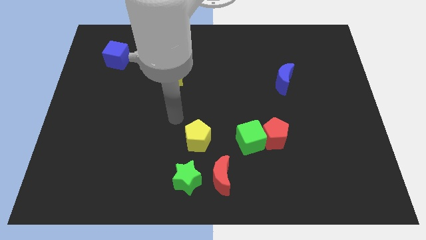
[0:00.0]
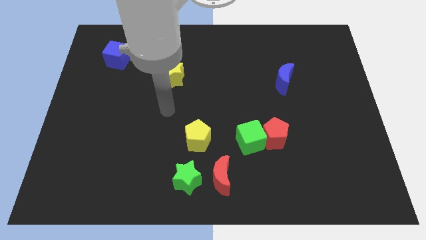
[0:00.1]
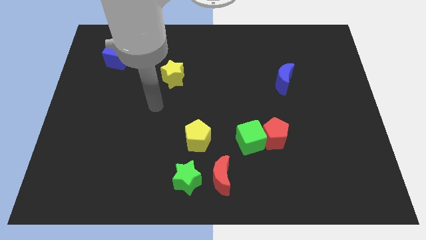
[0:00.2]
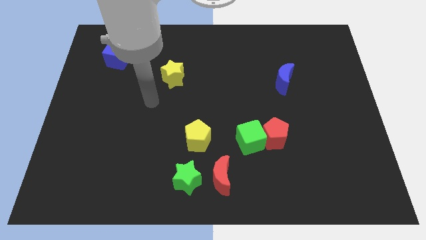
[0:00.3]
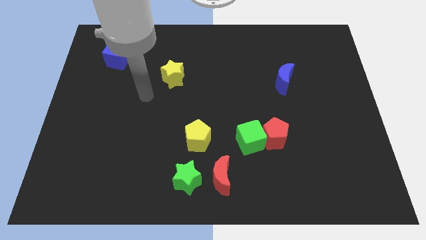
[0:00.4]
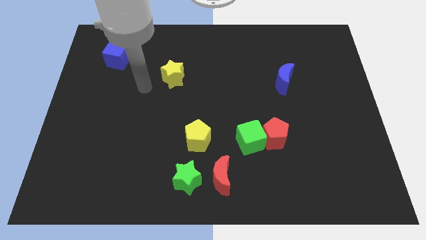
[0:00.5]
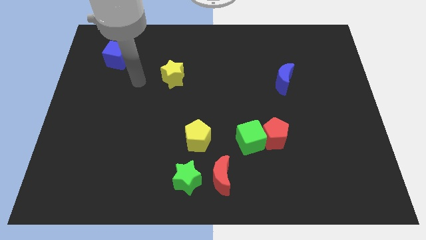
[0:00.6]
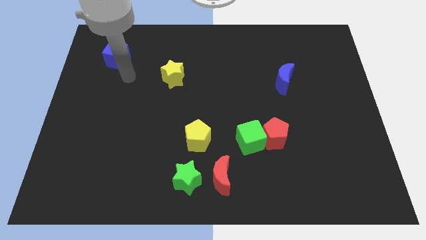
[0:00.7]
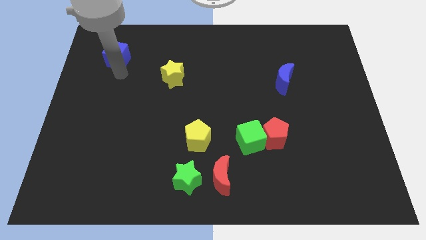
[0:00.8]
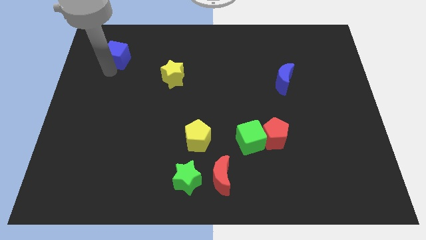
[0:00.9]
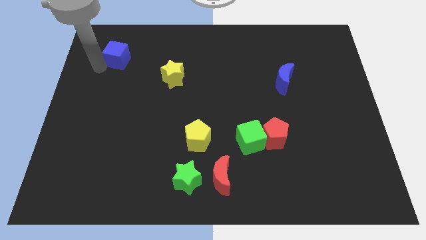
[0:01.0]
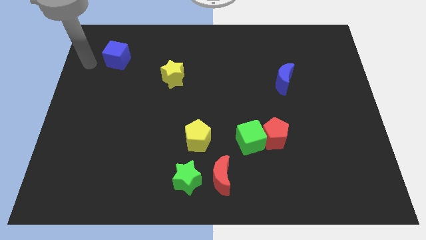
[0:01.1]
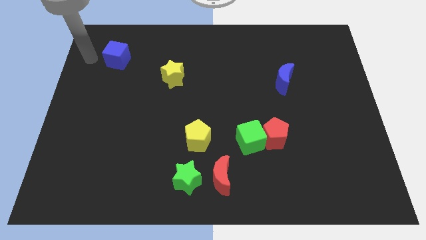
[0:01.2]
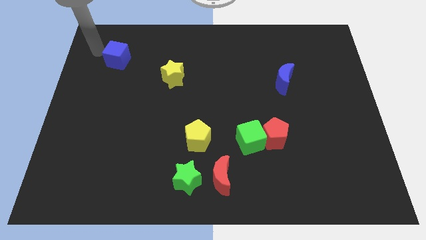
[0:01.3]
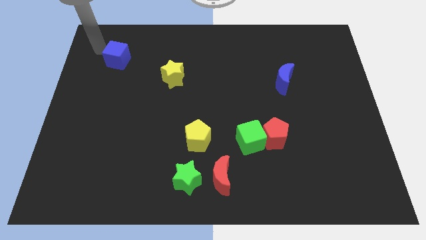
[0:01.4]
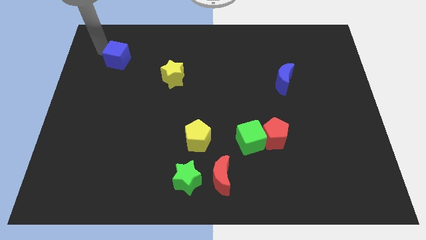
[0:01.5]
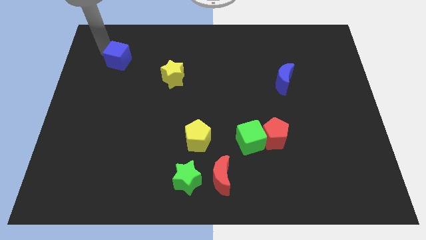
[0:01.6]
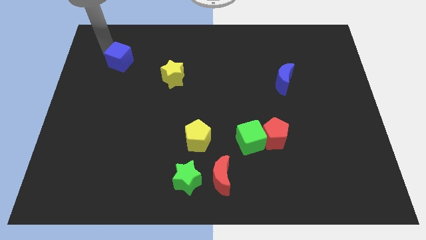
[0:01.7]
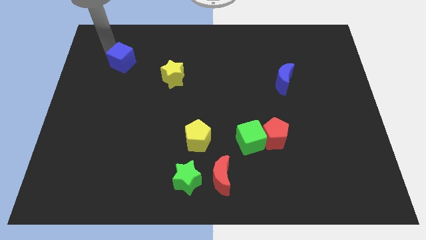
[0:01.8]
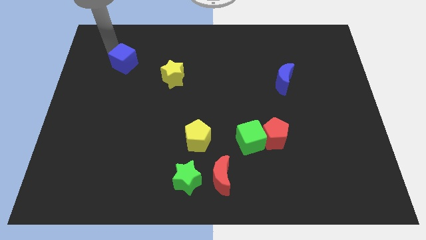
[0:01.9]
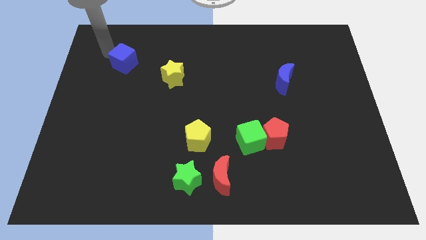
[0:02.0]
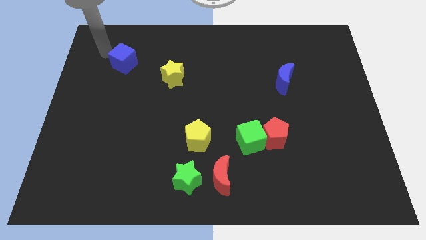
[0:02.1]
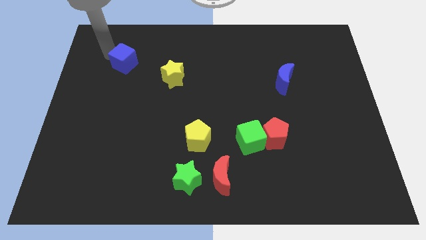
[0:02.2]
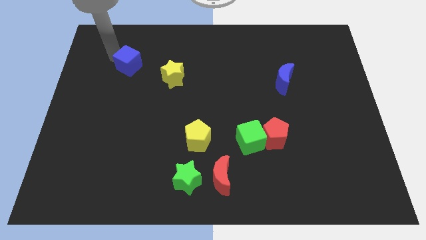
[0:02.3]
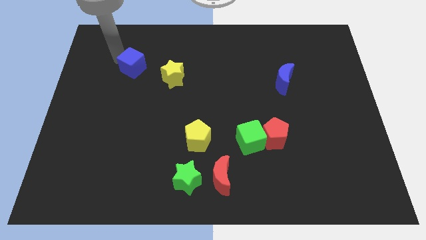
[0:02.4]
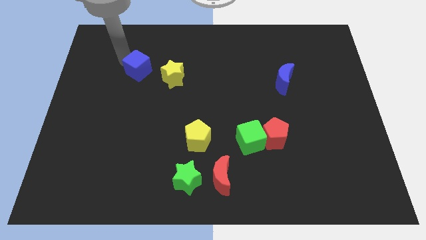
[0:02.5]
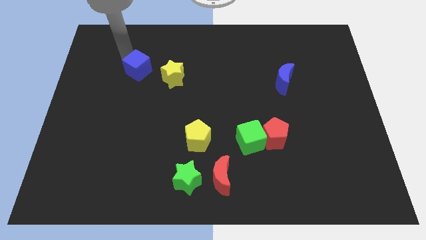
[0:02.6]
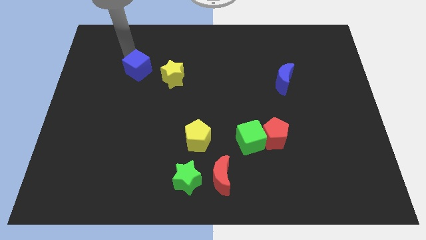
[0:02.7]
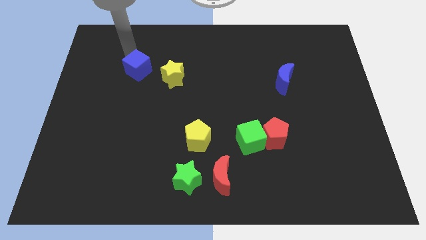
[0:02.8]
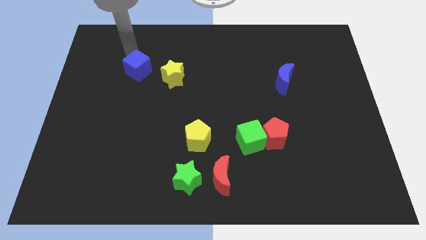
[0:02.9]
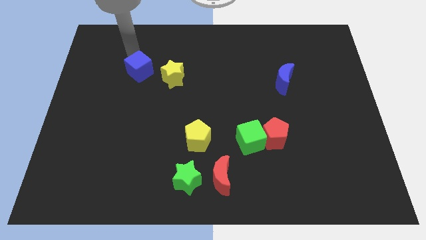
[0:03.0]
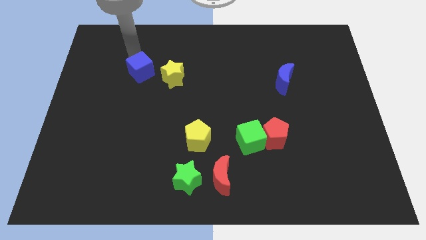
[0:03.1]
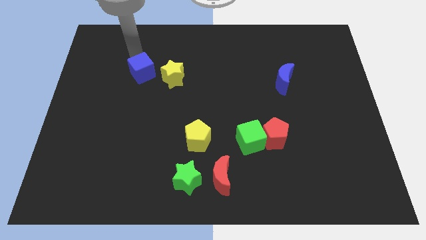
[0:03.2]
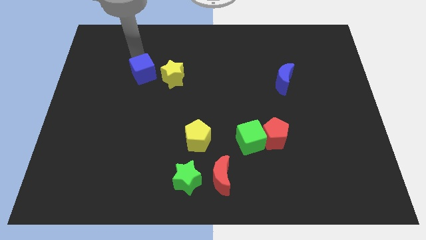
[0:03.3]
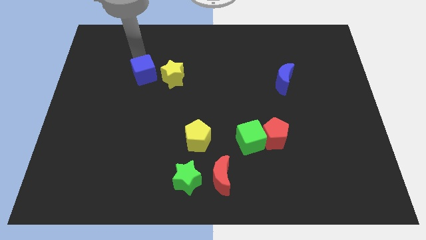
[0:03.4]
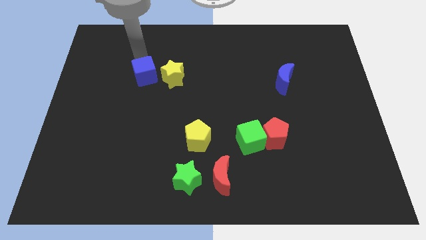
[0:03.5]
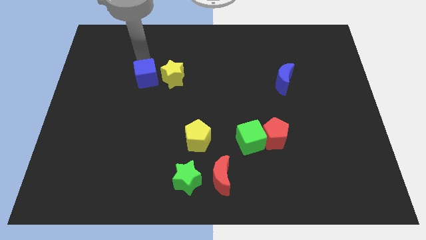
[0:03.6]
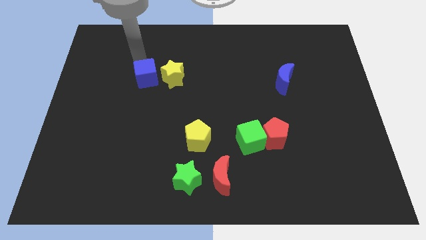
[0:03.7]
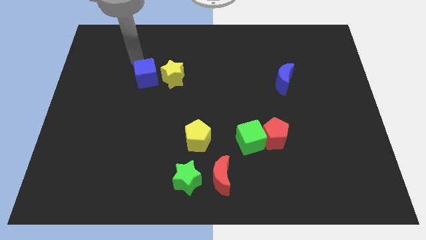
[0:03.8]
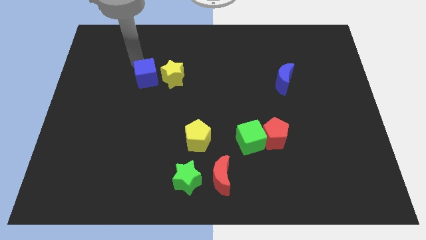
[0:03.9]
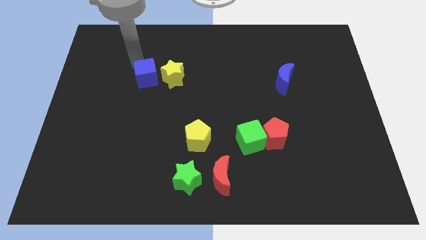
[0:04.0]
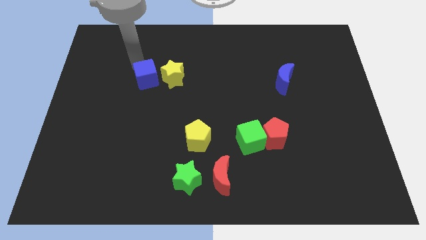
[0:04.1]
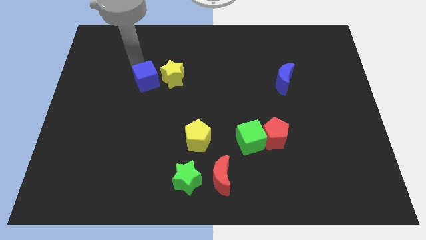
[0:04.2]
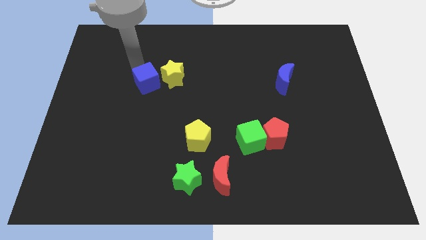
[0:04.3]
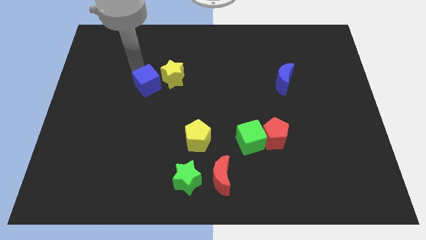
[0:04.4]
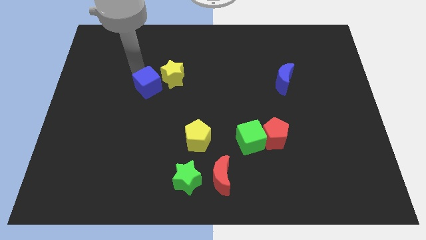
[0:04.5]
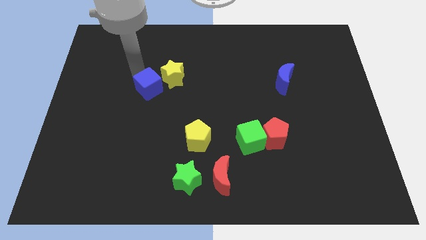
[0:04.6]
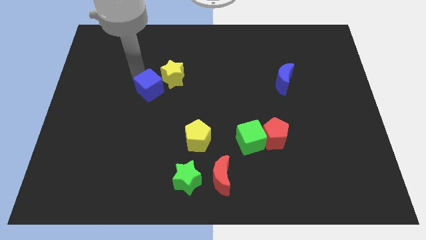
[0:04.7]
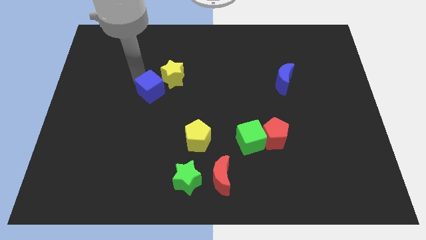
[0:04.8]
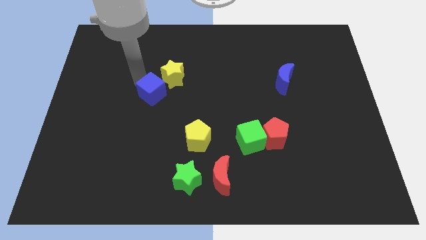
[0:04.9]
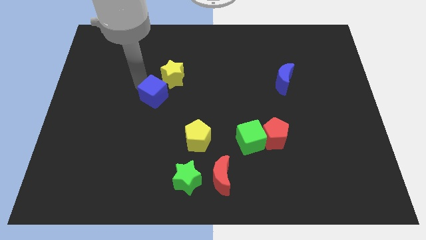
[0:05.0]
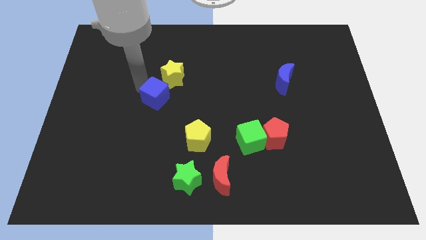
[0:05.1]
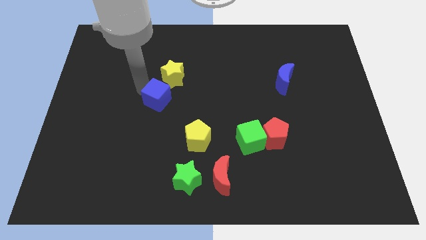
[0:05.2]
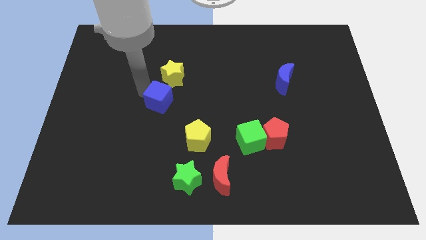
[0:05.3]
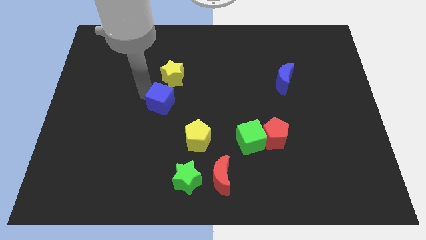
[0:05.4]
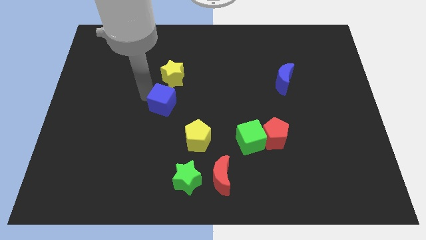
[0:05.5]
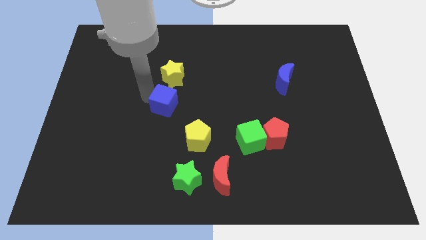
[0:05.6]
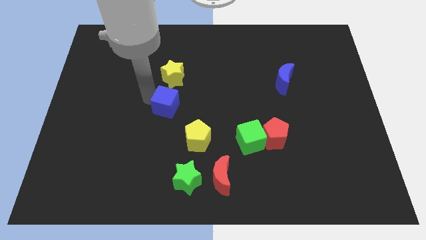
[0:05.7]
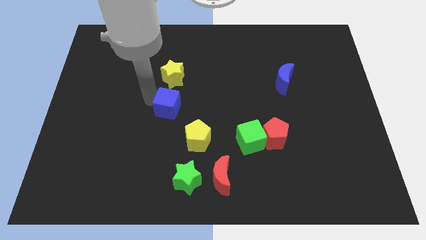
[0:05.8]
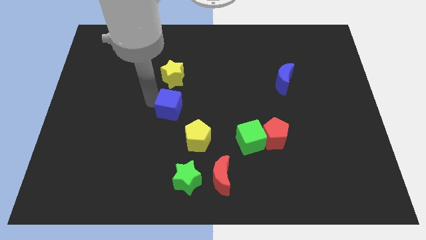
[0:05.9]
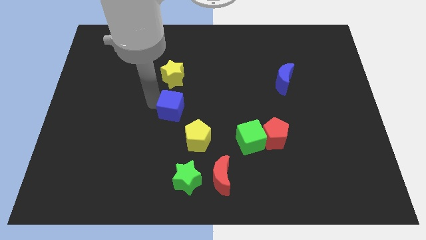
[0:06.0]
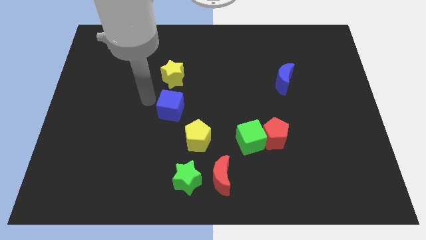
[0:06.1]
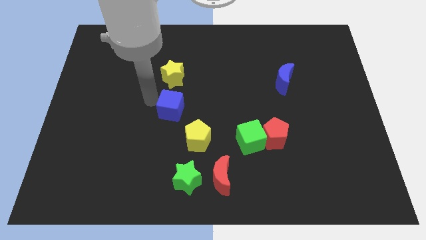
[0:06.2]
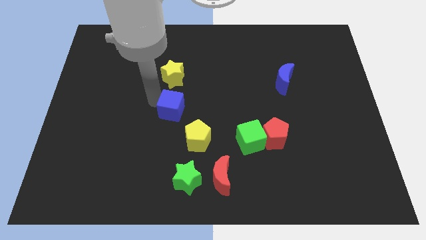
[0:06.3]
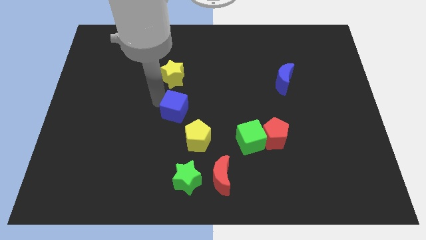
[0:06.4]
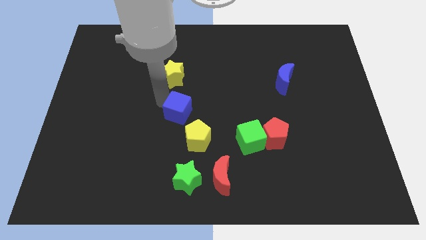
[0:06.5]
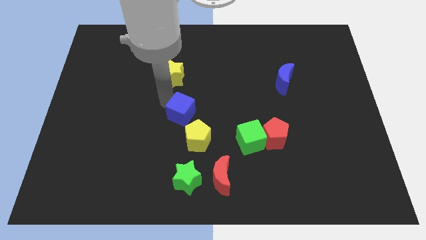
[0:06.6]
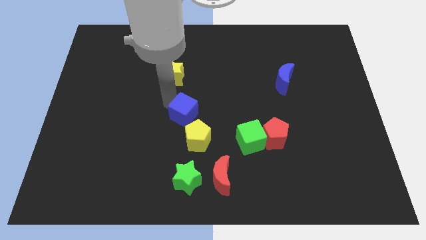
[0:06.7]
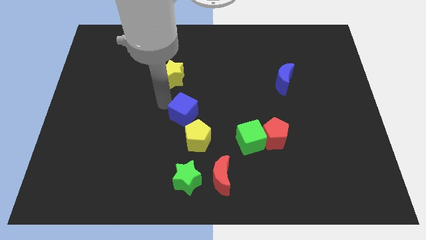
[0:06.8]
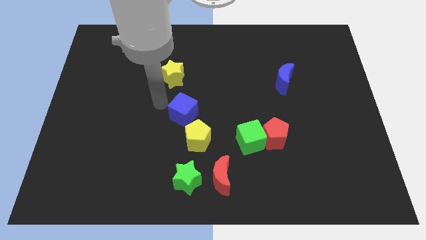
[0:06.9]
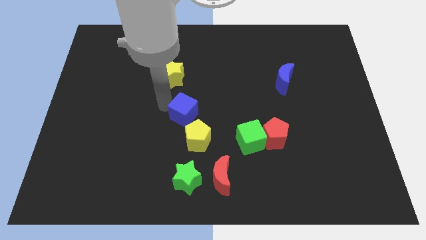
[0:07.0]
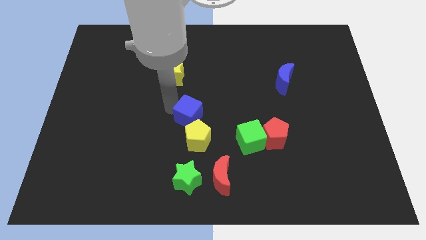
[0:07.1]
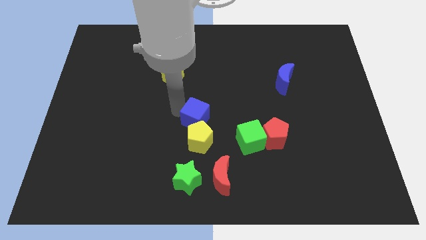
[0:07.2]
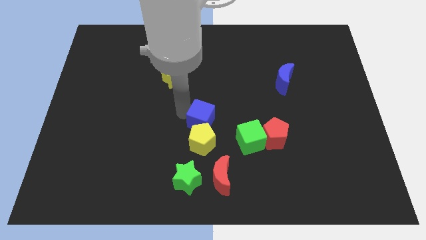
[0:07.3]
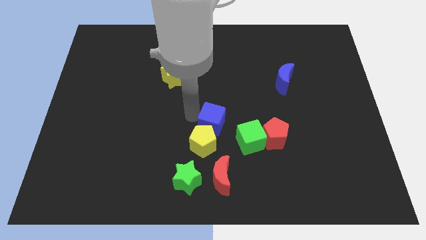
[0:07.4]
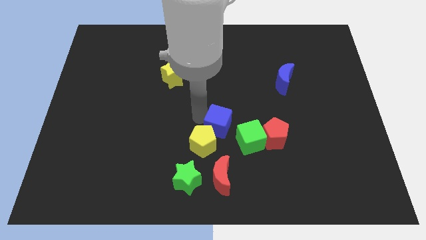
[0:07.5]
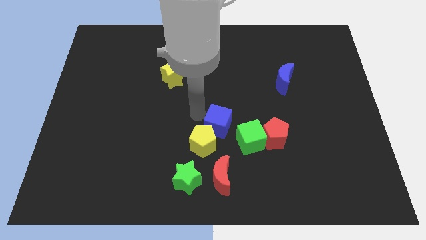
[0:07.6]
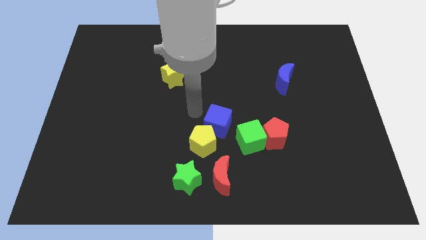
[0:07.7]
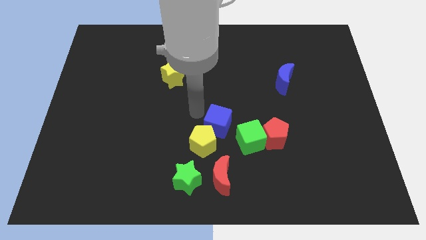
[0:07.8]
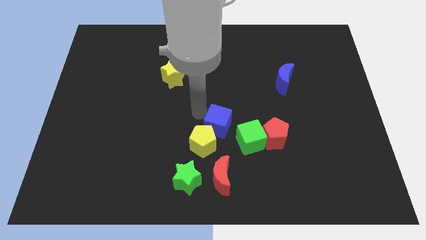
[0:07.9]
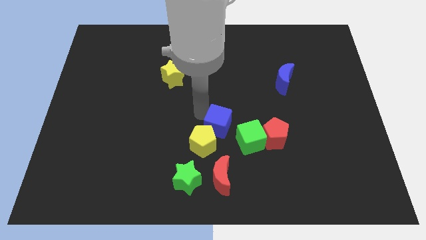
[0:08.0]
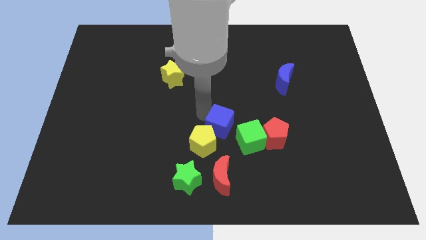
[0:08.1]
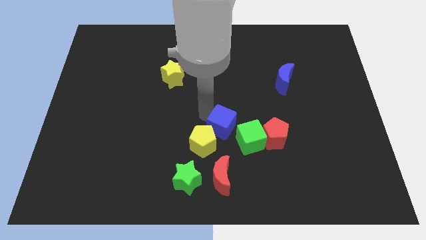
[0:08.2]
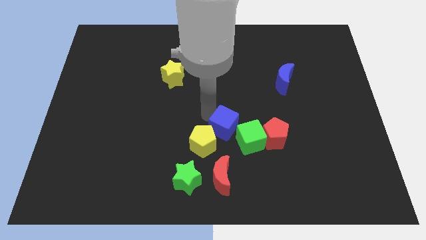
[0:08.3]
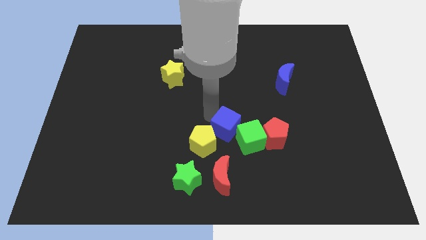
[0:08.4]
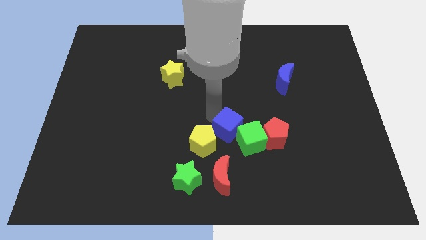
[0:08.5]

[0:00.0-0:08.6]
move the blue cube to the green cube
